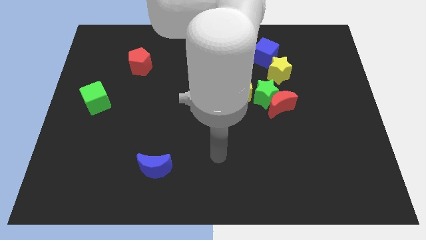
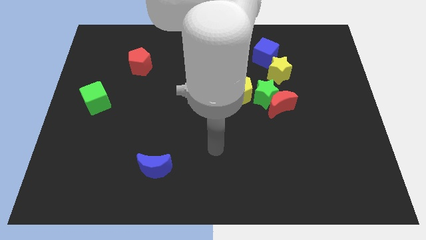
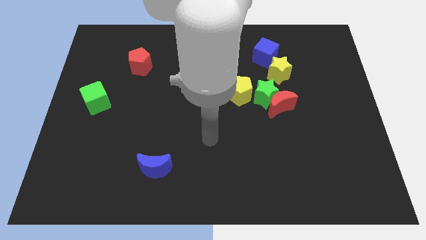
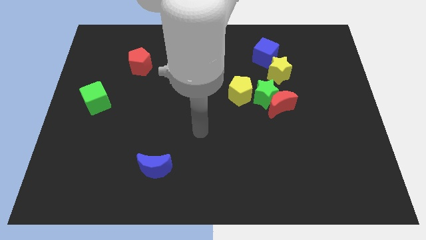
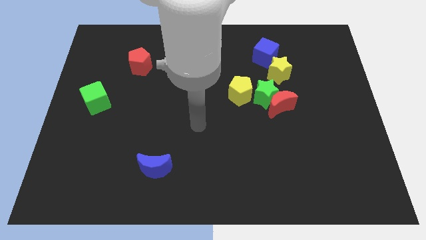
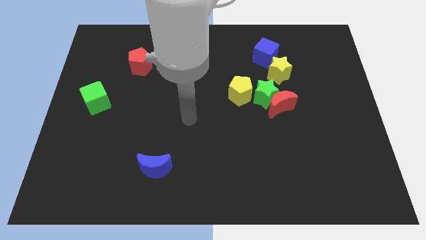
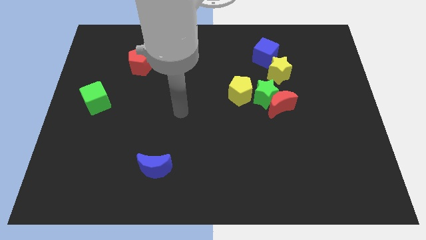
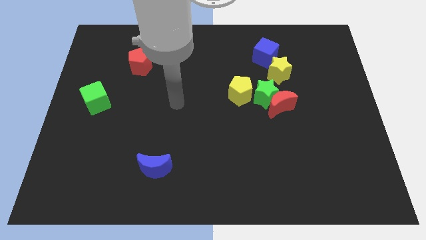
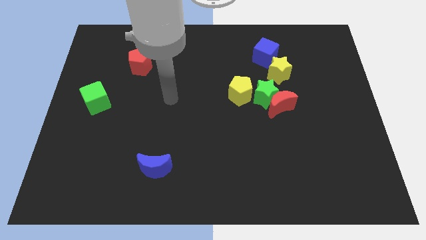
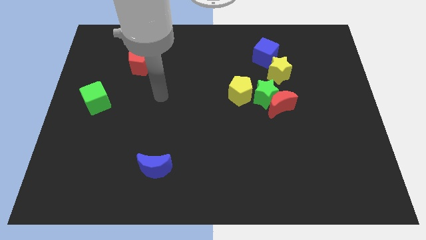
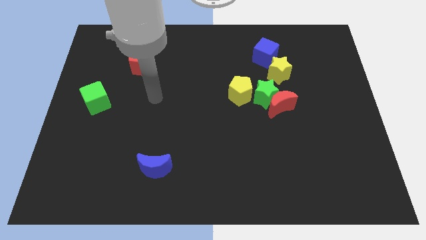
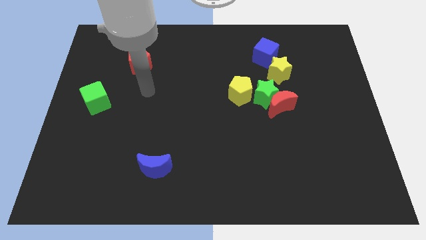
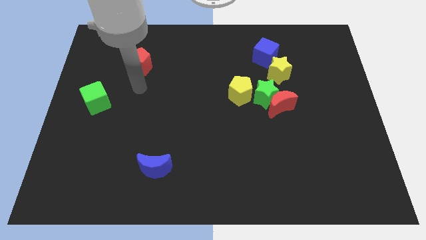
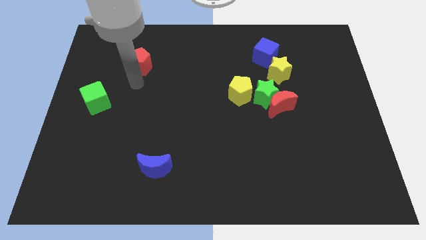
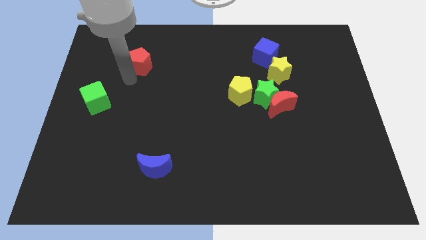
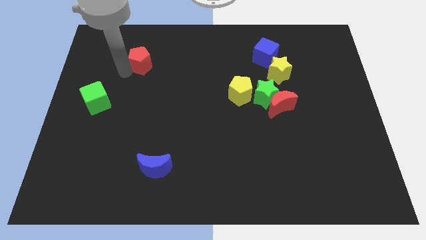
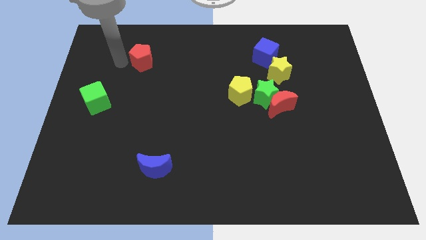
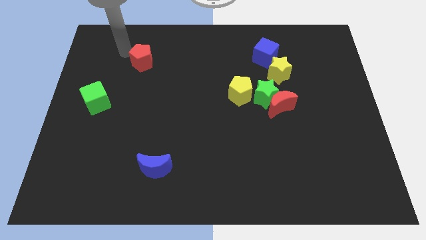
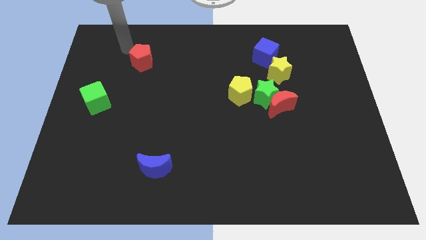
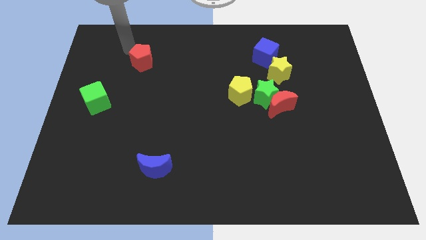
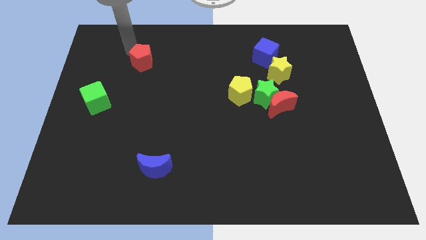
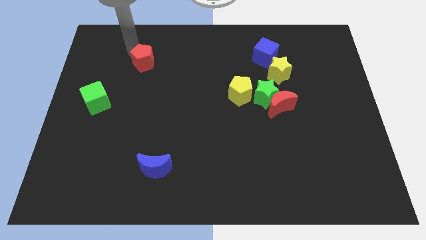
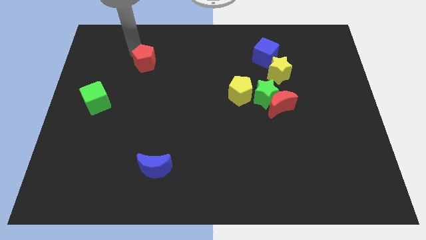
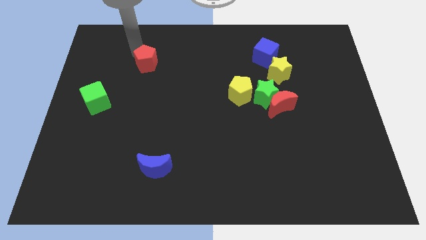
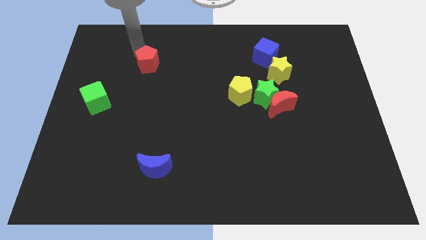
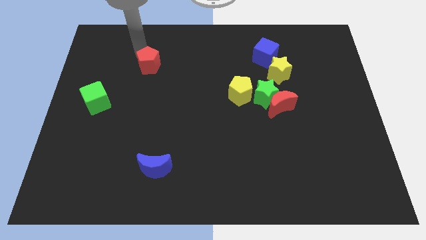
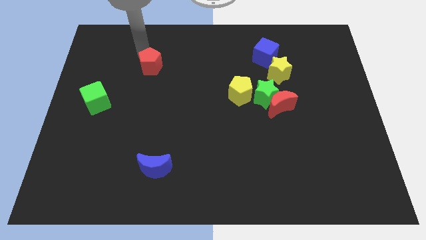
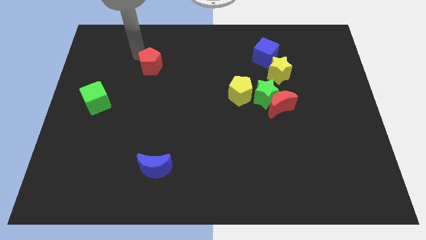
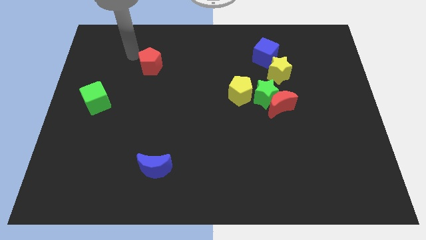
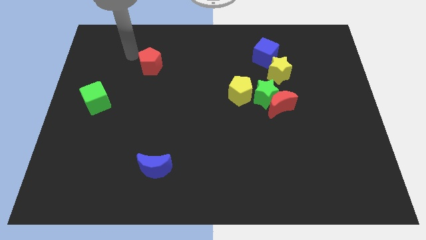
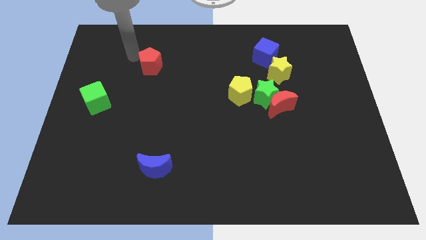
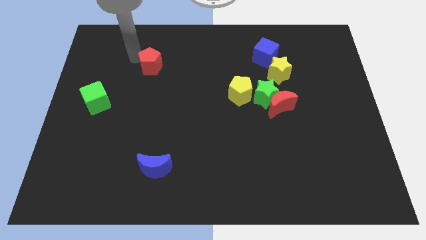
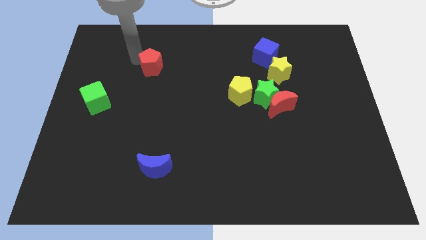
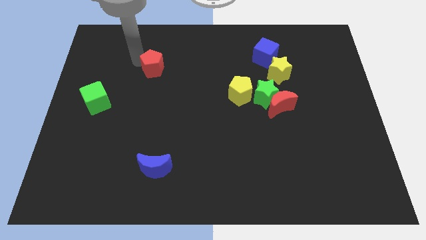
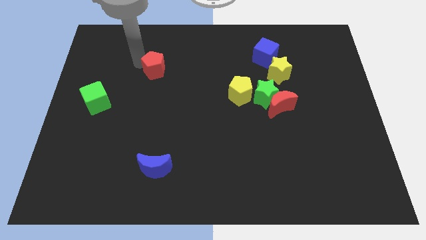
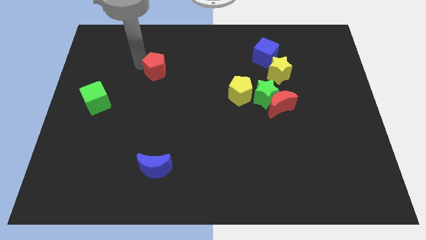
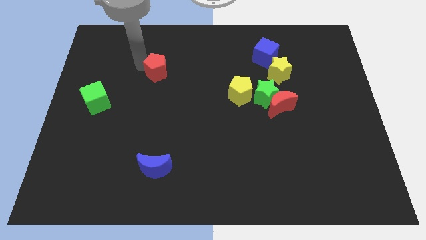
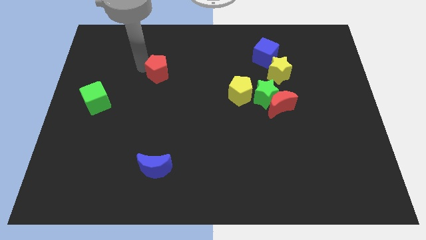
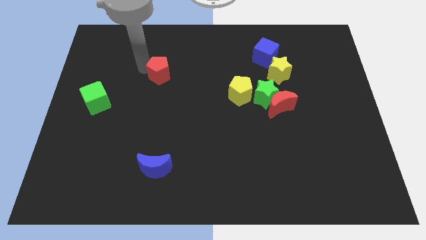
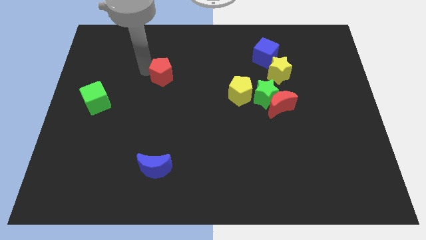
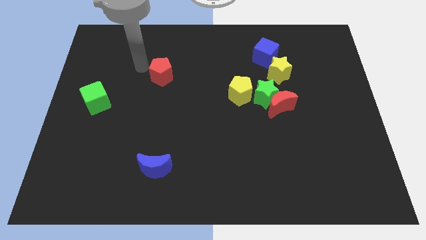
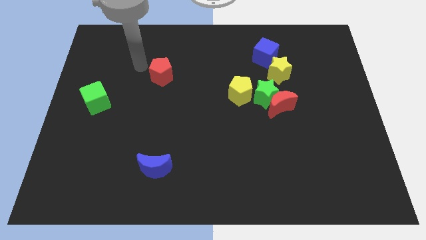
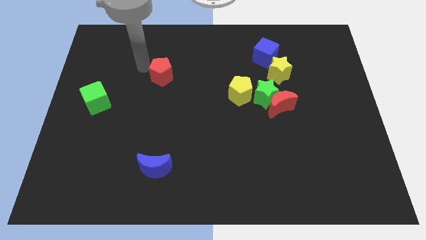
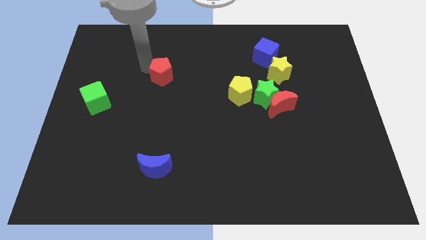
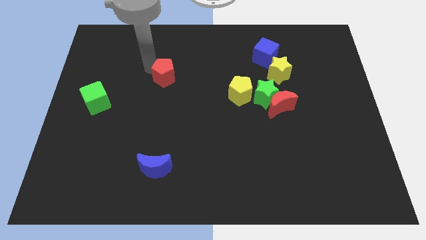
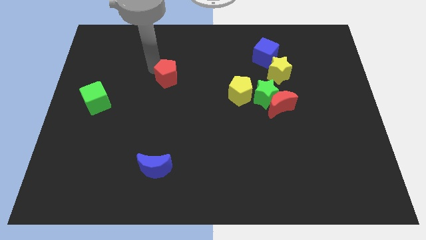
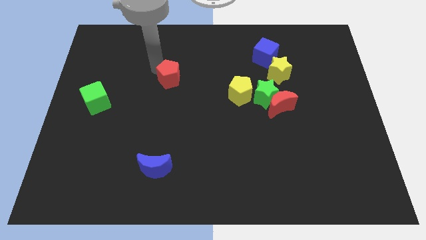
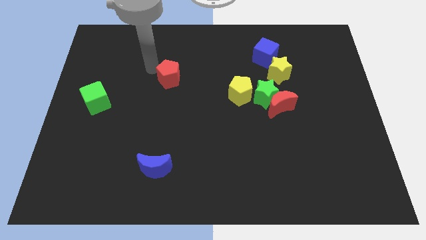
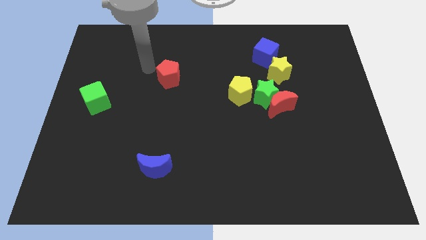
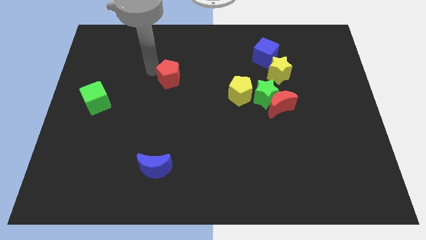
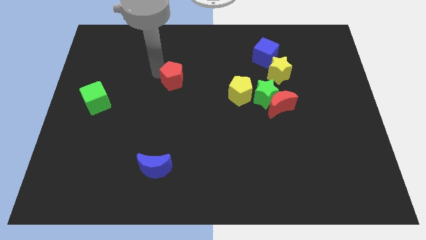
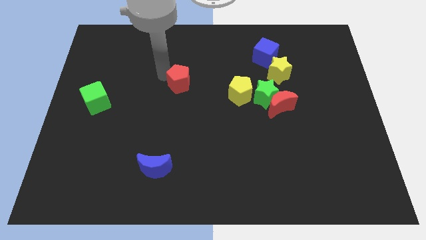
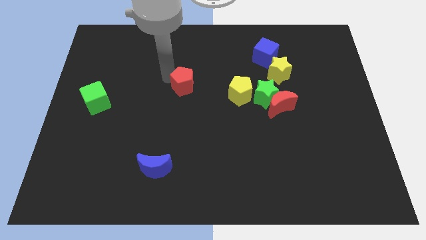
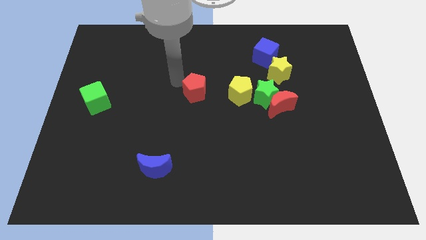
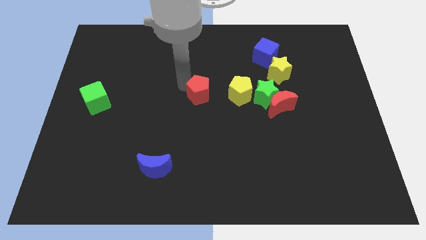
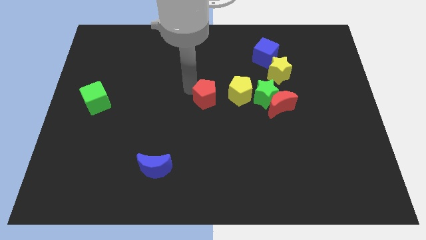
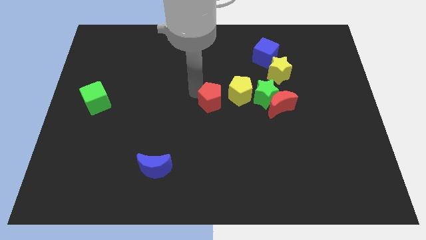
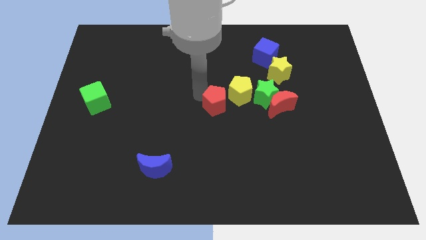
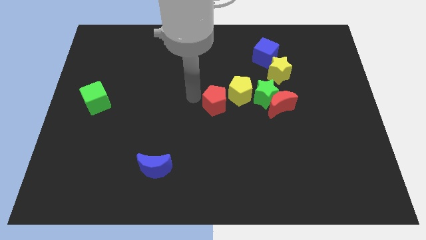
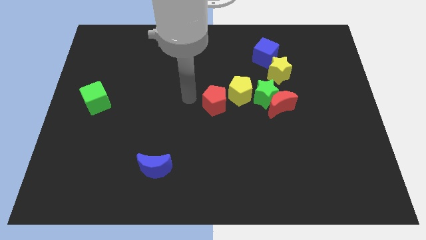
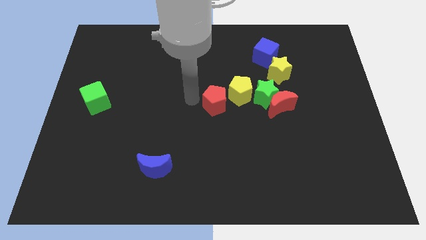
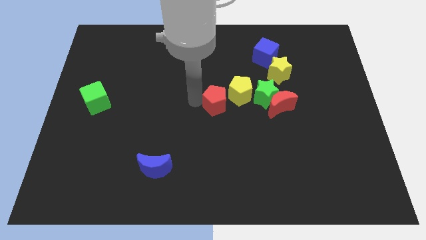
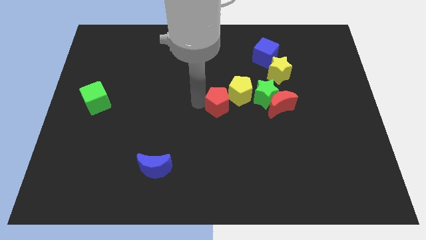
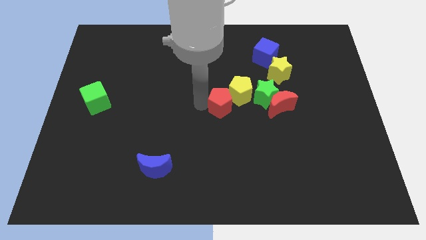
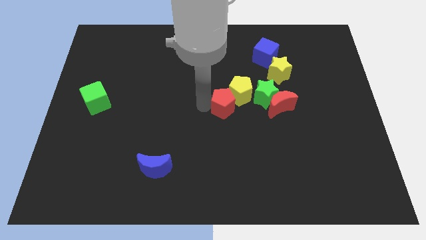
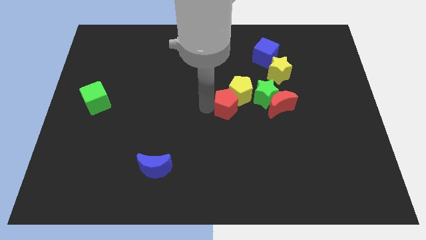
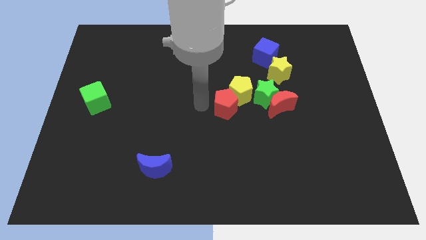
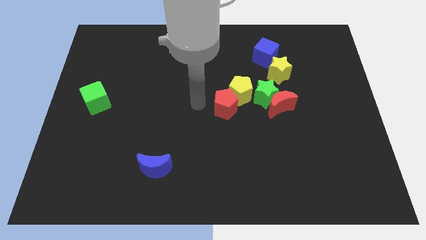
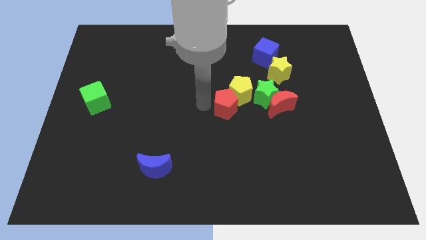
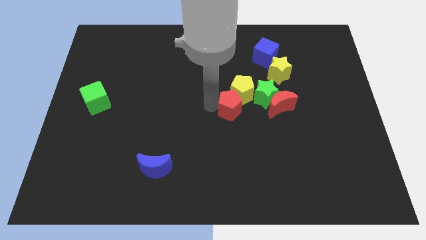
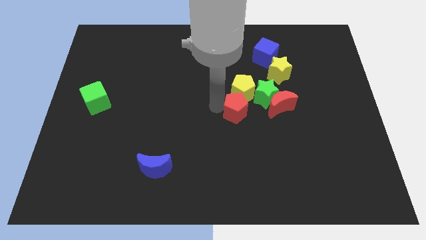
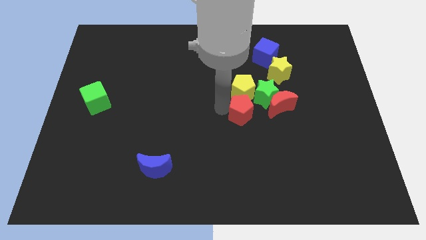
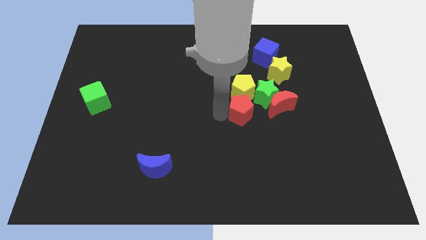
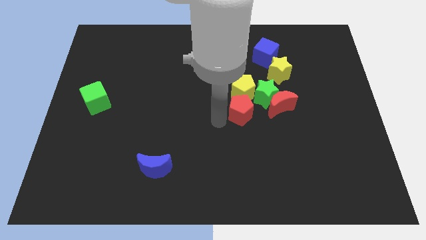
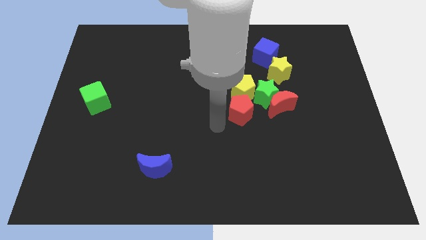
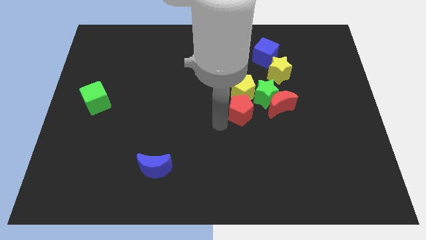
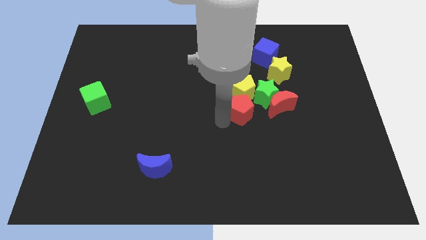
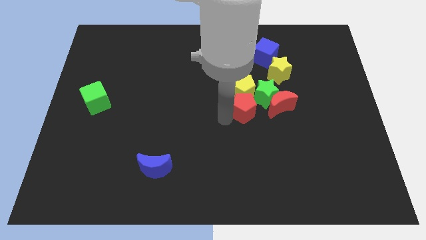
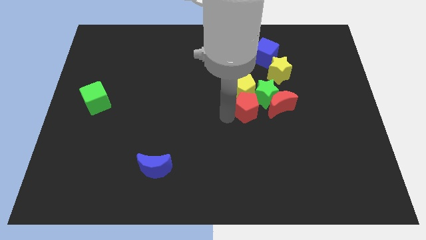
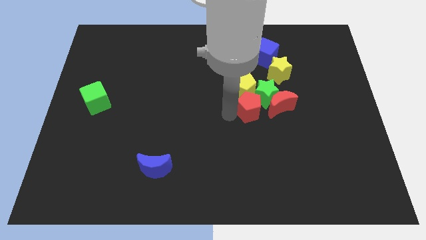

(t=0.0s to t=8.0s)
put the red pentagon next to the green star
